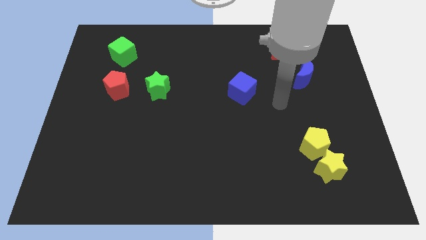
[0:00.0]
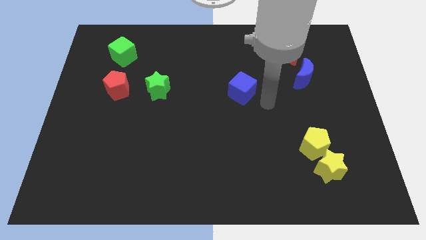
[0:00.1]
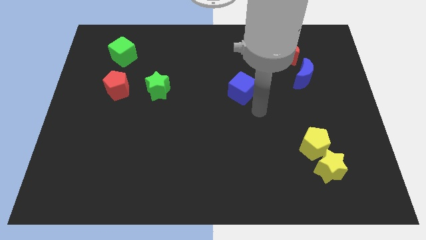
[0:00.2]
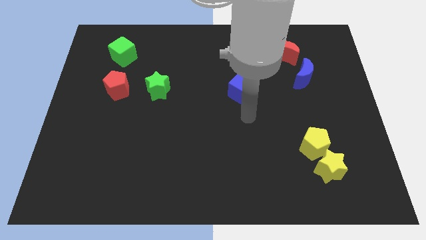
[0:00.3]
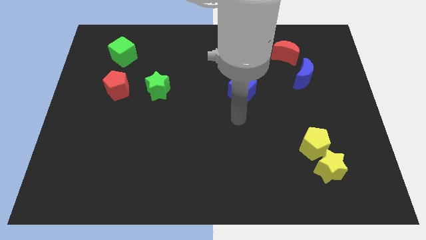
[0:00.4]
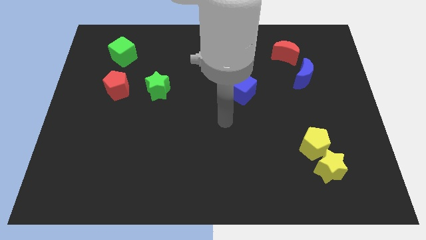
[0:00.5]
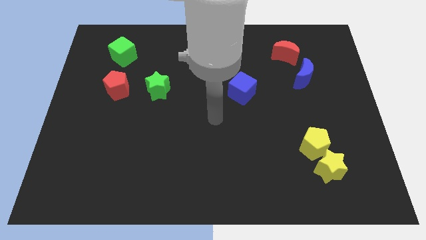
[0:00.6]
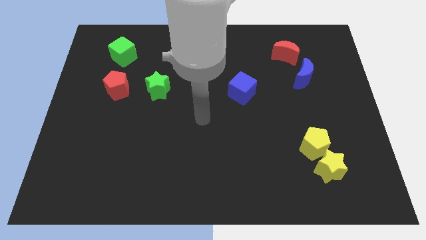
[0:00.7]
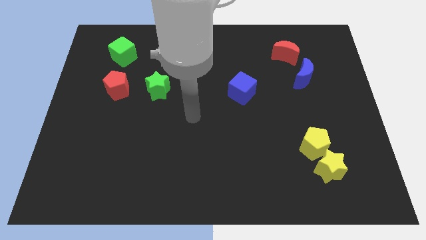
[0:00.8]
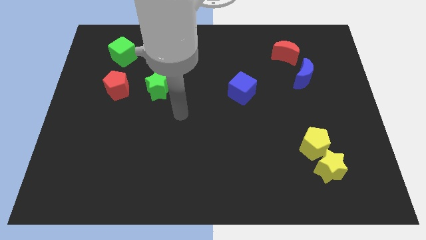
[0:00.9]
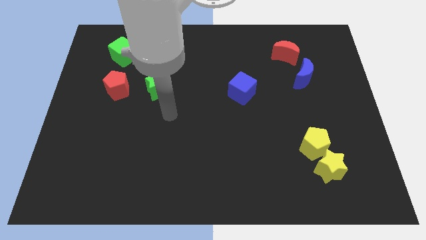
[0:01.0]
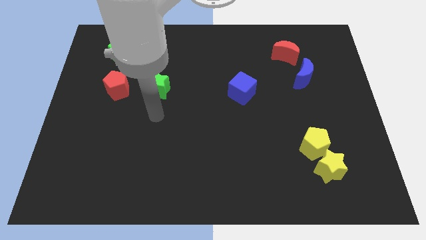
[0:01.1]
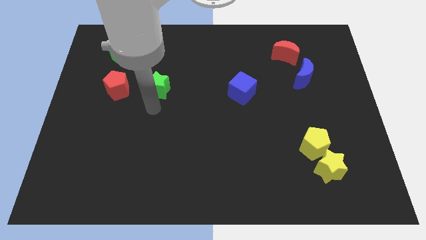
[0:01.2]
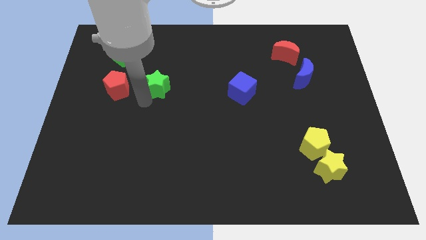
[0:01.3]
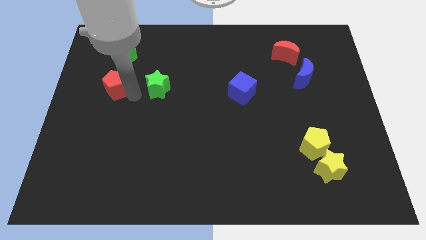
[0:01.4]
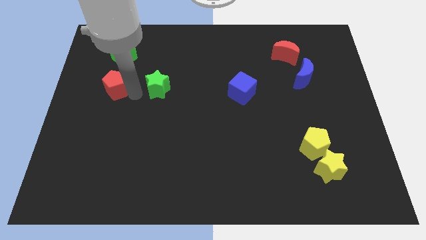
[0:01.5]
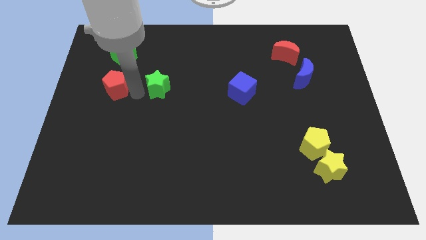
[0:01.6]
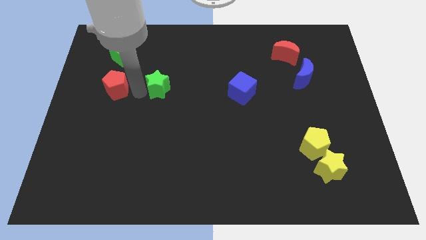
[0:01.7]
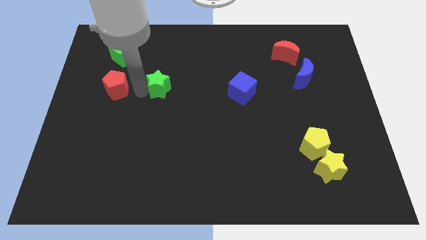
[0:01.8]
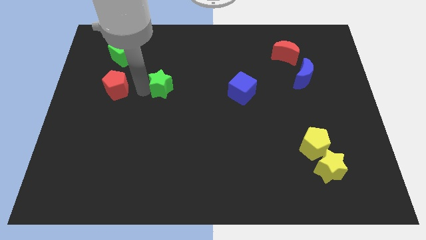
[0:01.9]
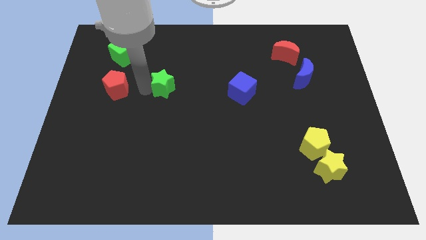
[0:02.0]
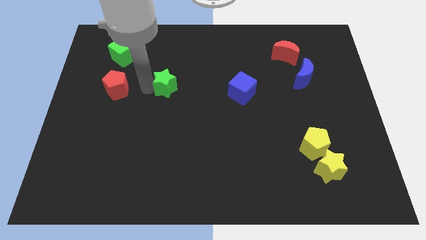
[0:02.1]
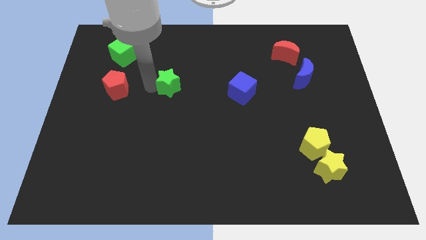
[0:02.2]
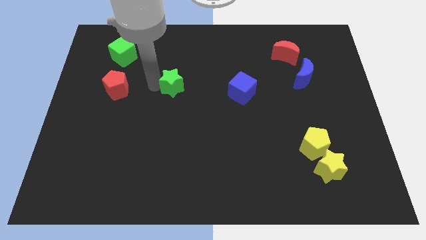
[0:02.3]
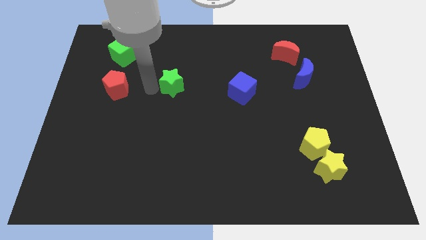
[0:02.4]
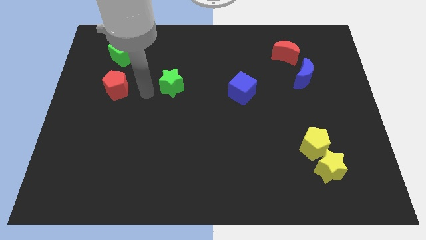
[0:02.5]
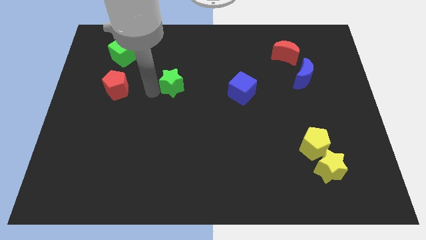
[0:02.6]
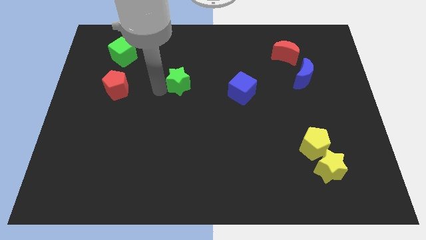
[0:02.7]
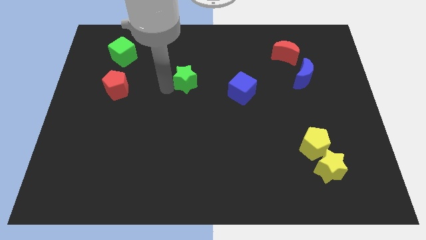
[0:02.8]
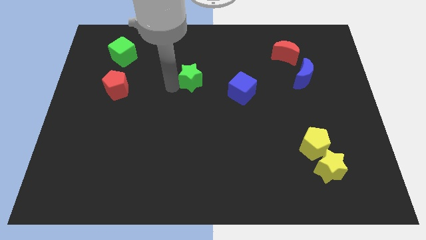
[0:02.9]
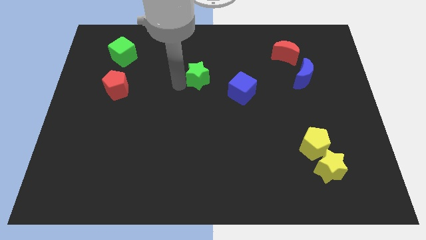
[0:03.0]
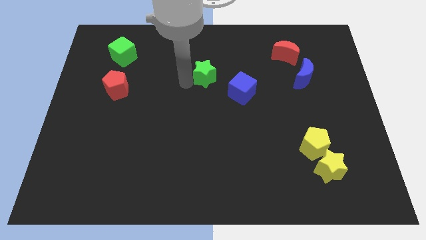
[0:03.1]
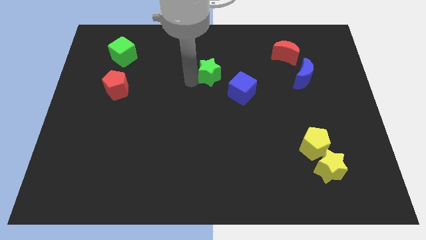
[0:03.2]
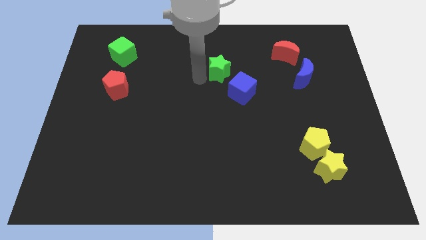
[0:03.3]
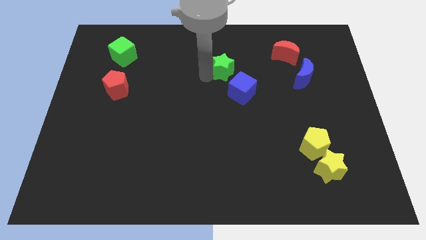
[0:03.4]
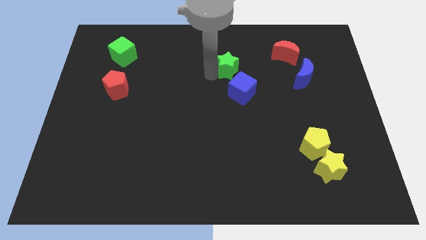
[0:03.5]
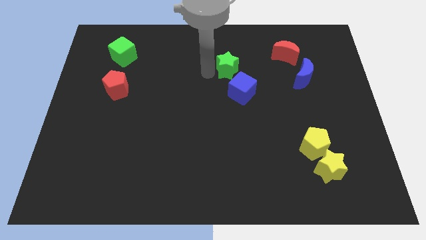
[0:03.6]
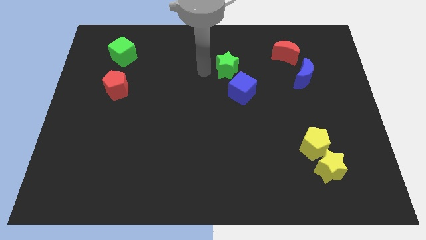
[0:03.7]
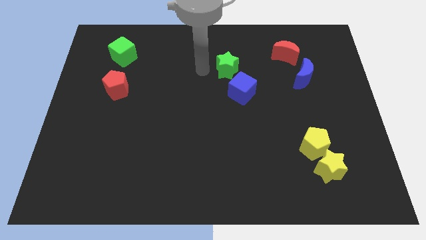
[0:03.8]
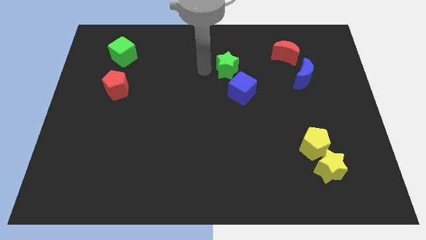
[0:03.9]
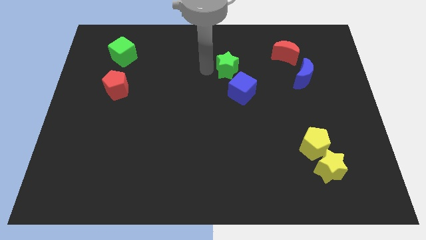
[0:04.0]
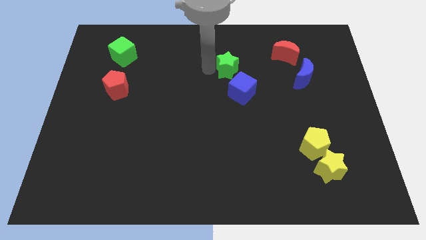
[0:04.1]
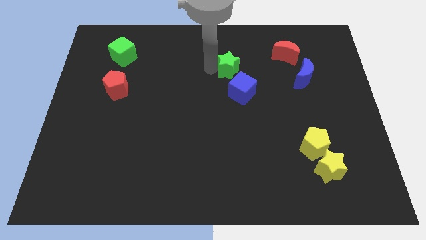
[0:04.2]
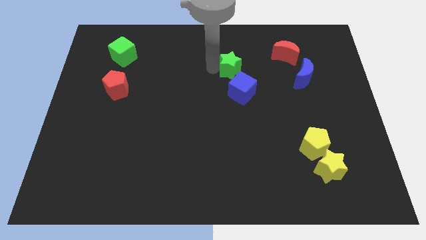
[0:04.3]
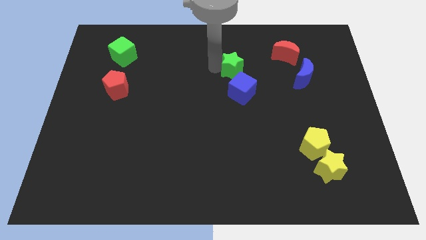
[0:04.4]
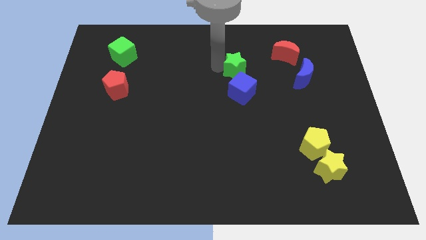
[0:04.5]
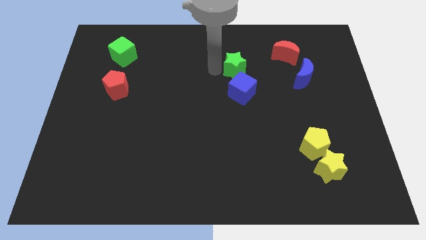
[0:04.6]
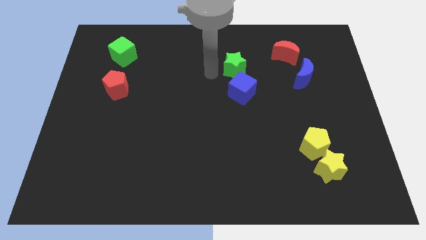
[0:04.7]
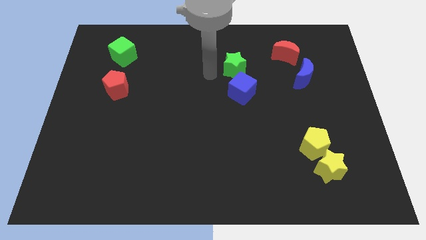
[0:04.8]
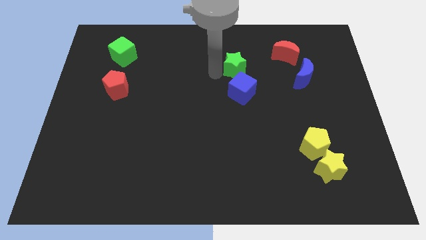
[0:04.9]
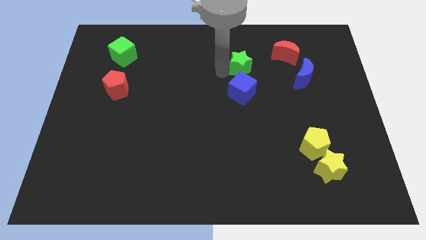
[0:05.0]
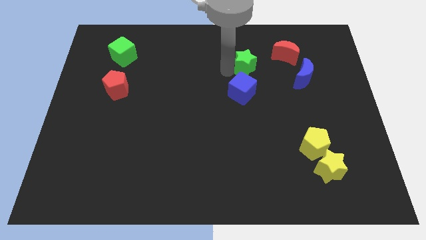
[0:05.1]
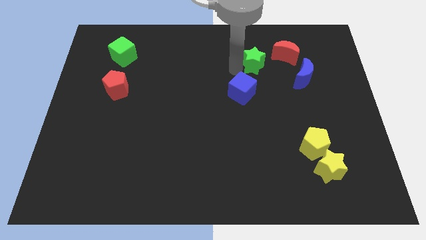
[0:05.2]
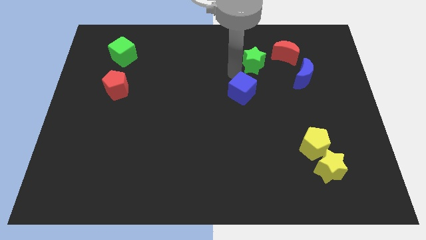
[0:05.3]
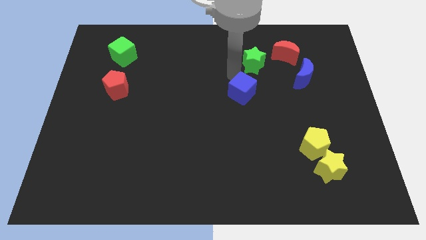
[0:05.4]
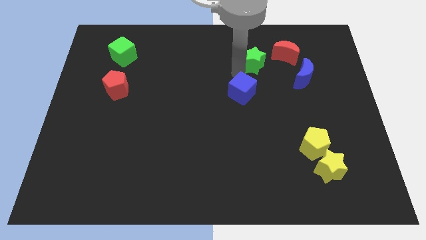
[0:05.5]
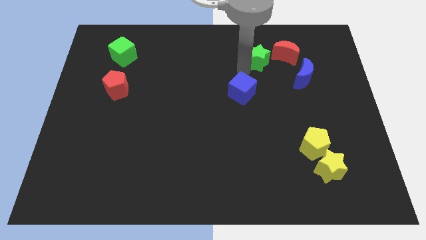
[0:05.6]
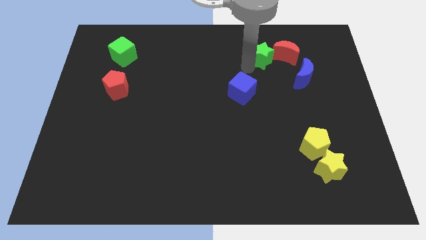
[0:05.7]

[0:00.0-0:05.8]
put the green star diagonally up and to the left of the blue moon

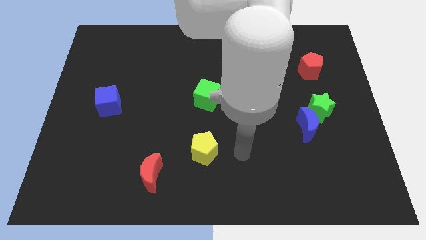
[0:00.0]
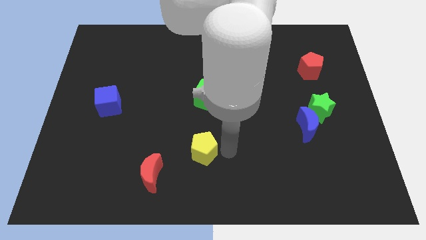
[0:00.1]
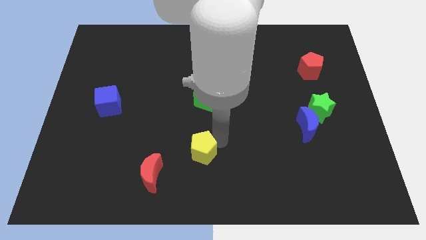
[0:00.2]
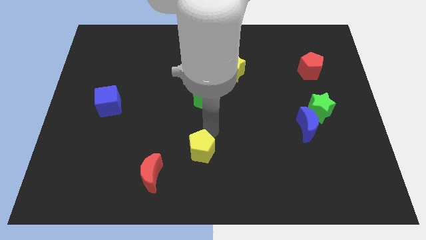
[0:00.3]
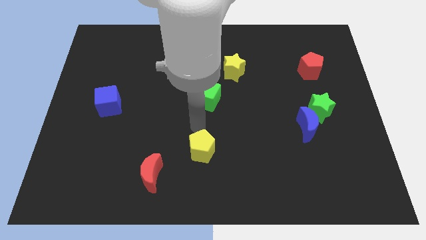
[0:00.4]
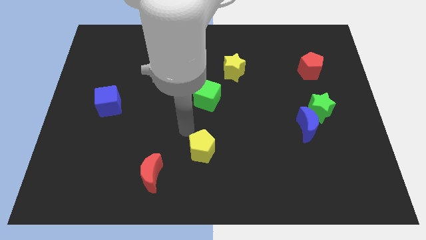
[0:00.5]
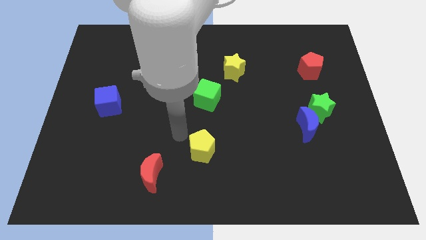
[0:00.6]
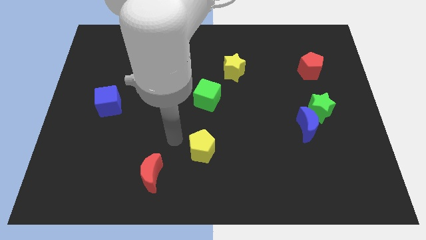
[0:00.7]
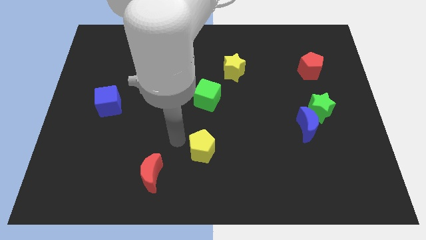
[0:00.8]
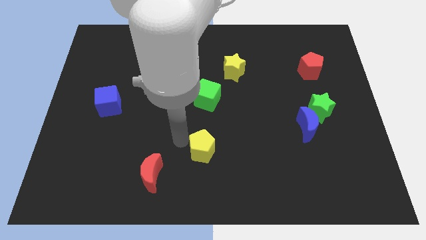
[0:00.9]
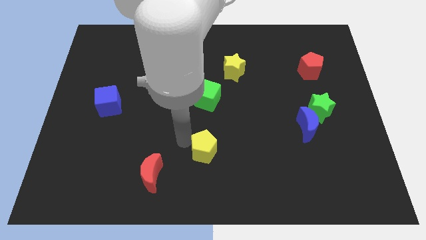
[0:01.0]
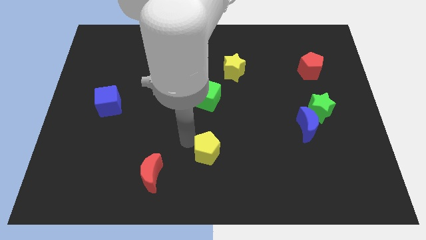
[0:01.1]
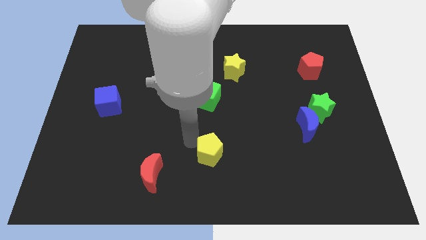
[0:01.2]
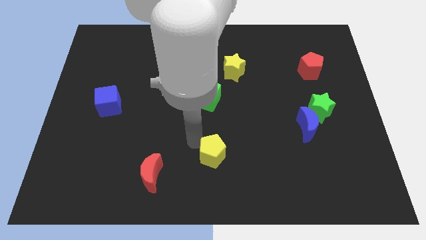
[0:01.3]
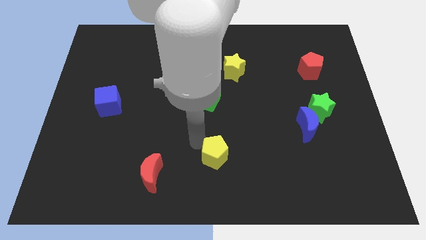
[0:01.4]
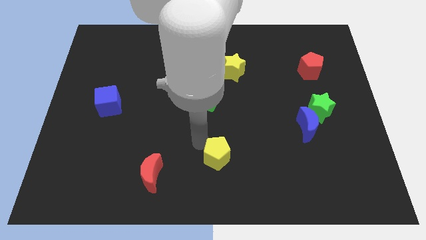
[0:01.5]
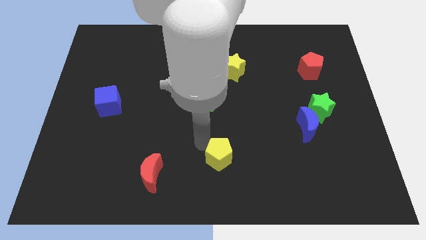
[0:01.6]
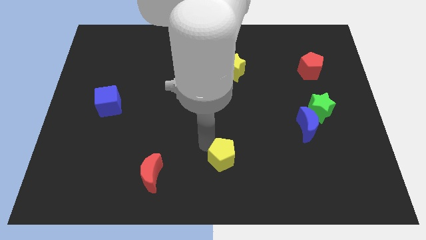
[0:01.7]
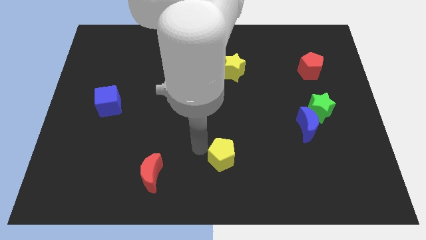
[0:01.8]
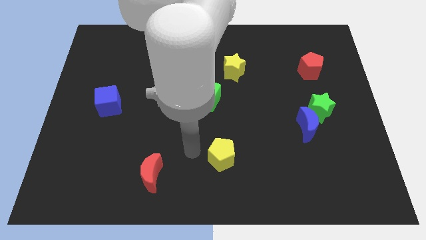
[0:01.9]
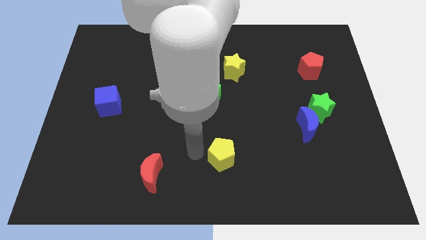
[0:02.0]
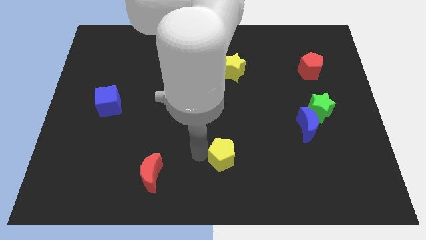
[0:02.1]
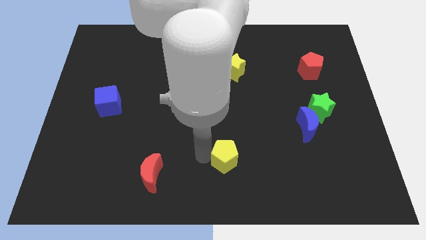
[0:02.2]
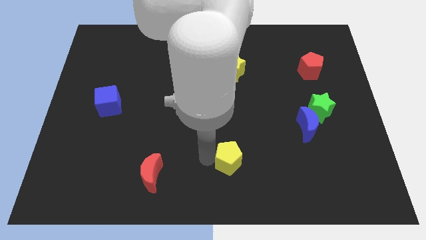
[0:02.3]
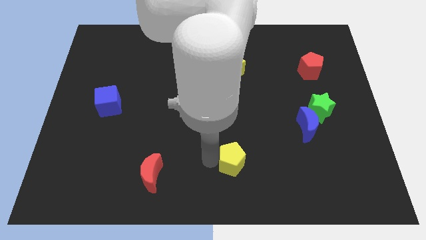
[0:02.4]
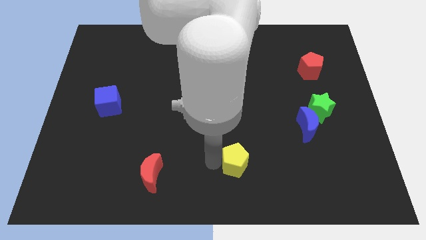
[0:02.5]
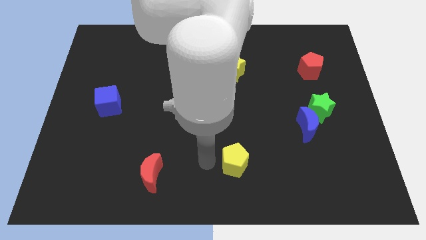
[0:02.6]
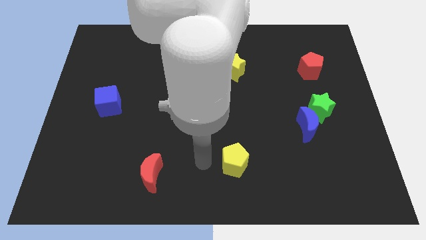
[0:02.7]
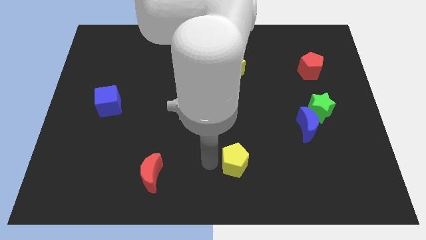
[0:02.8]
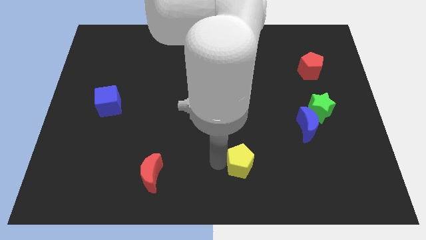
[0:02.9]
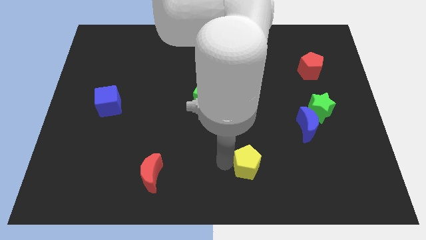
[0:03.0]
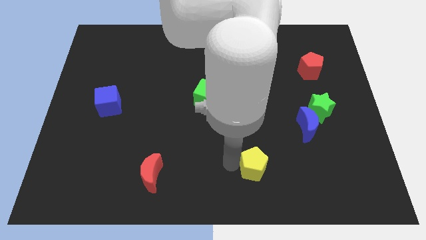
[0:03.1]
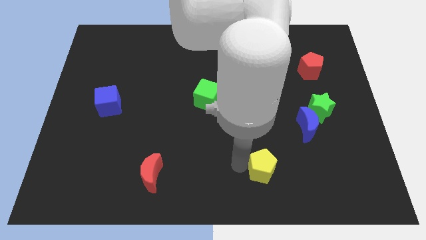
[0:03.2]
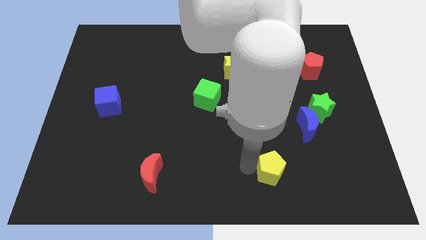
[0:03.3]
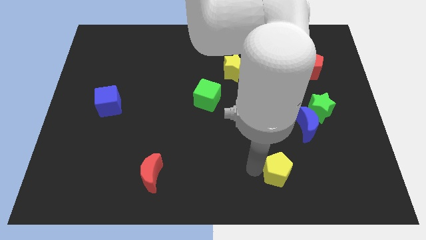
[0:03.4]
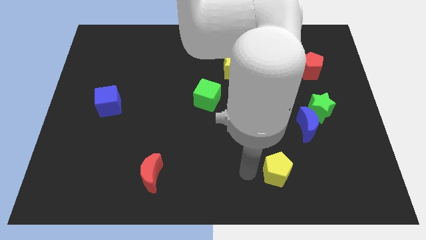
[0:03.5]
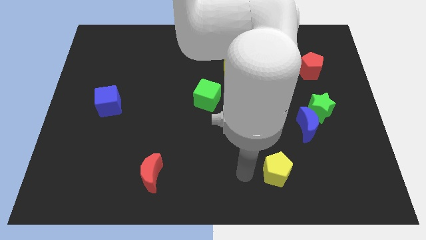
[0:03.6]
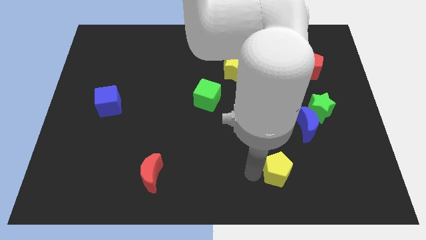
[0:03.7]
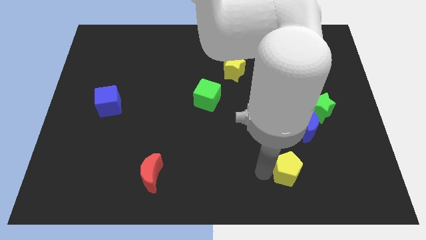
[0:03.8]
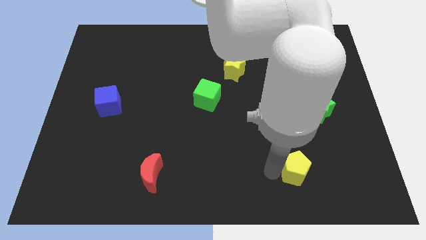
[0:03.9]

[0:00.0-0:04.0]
put the yellow pentagon to the bottom side of the blue moon
